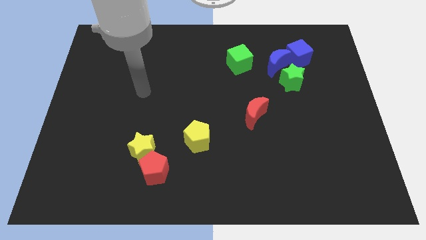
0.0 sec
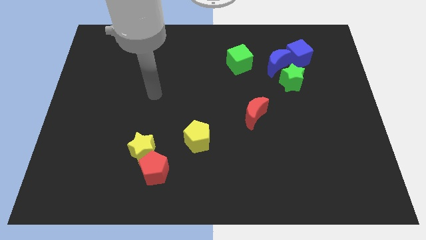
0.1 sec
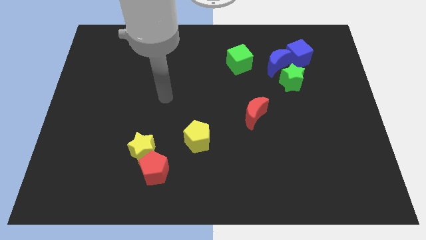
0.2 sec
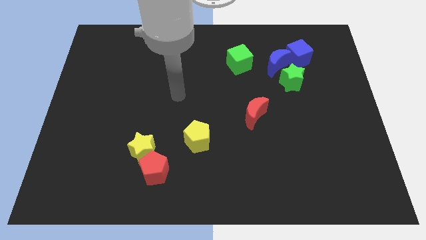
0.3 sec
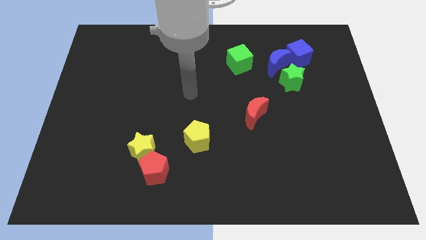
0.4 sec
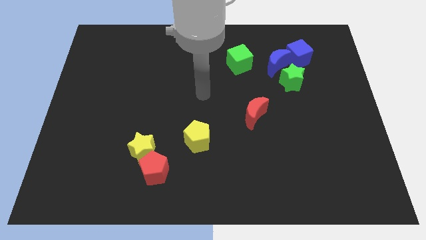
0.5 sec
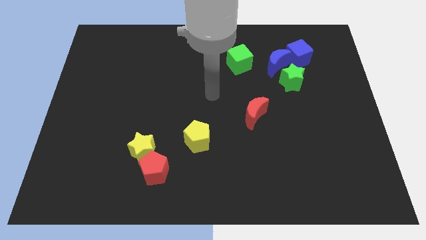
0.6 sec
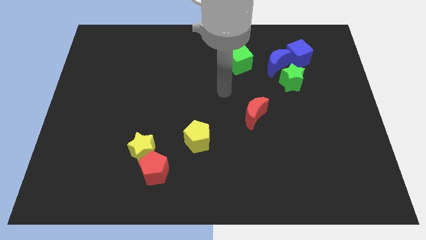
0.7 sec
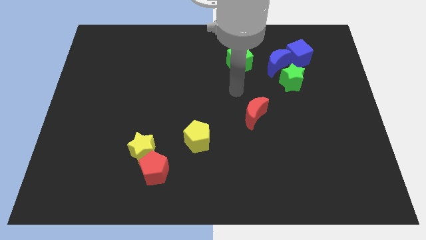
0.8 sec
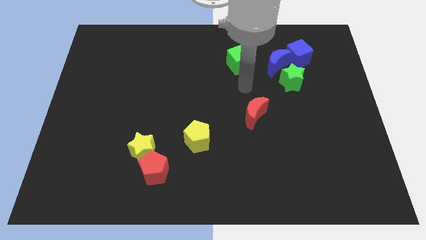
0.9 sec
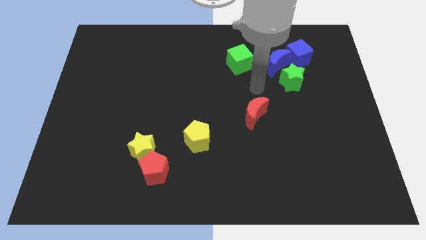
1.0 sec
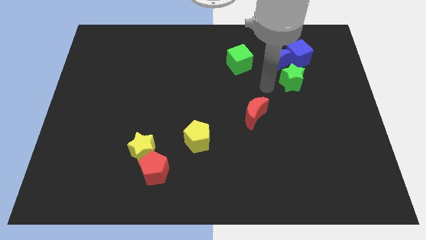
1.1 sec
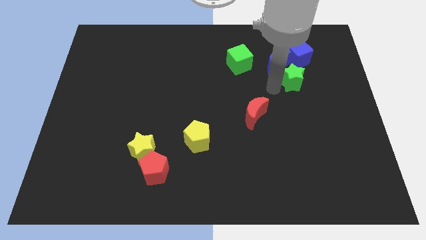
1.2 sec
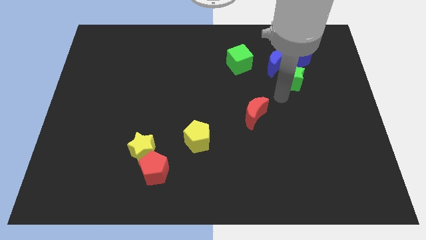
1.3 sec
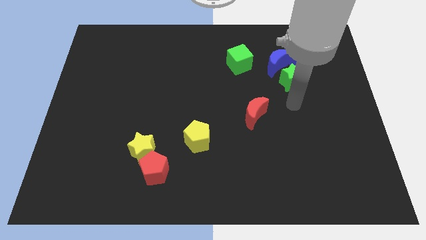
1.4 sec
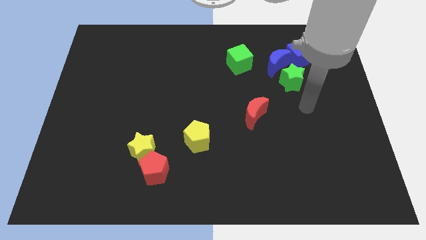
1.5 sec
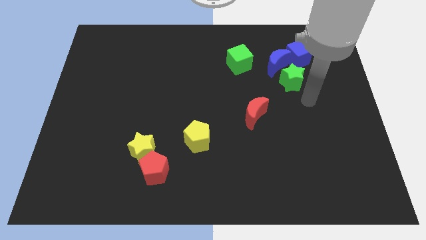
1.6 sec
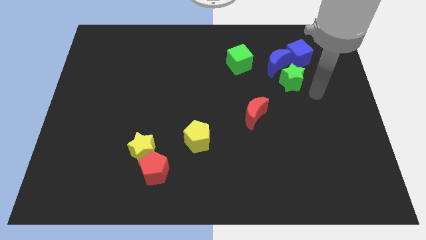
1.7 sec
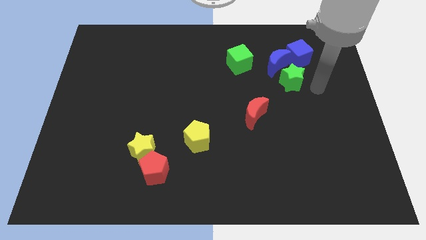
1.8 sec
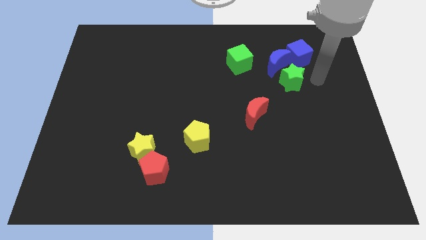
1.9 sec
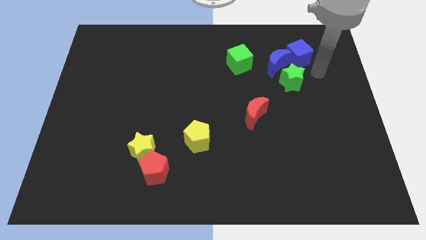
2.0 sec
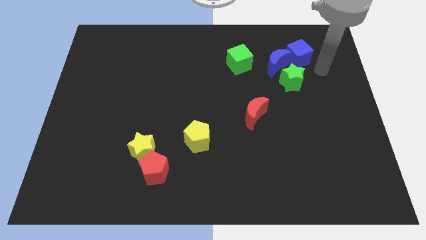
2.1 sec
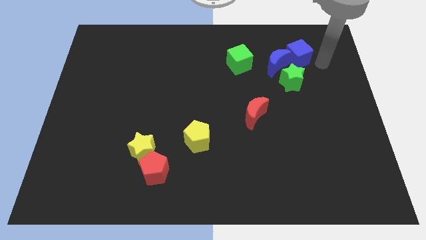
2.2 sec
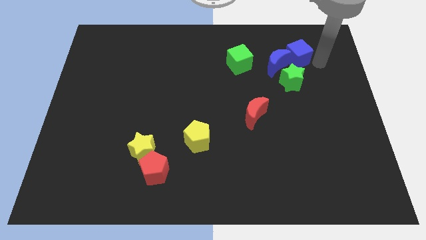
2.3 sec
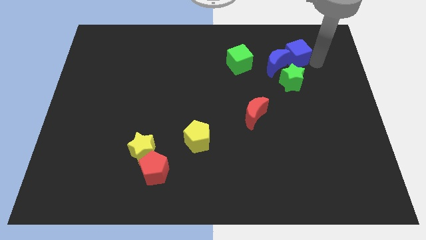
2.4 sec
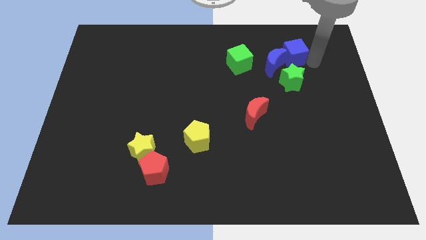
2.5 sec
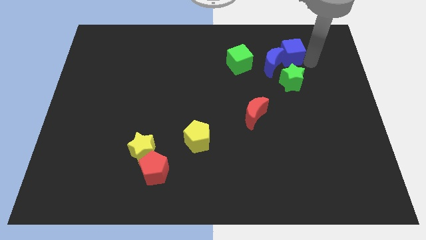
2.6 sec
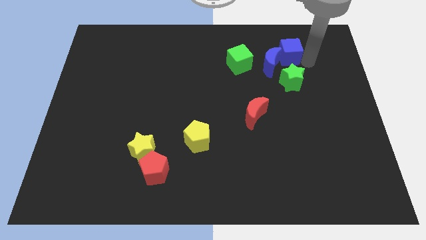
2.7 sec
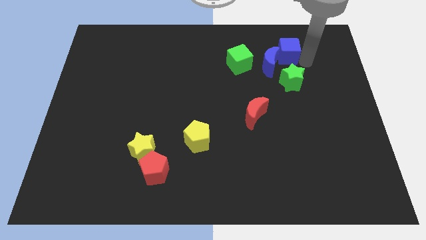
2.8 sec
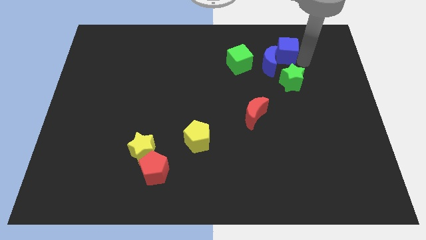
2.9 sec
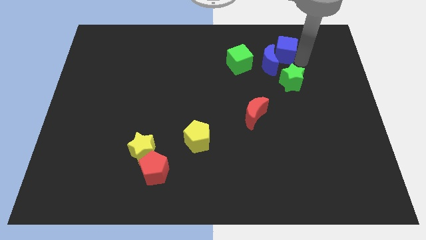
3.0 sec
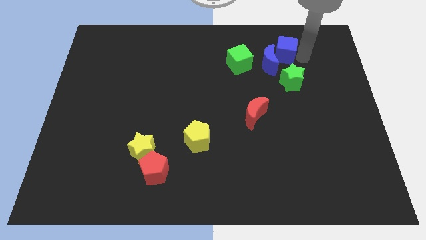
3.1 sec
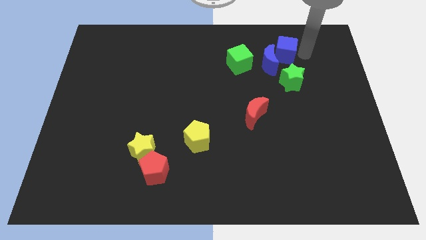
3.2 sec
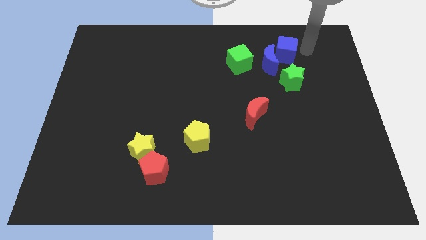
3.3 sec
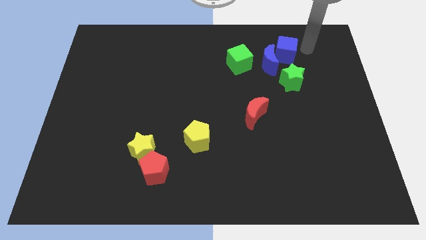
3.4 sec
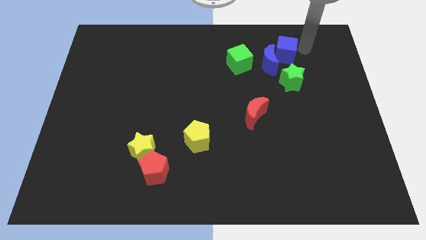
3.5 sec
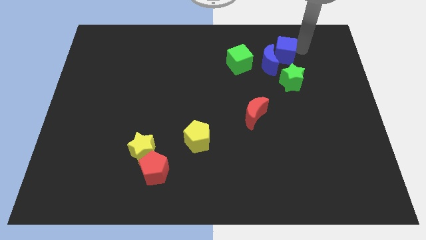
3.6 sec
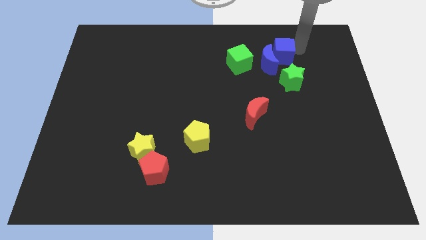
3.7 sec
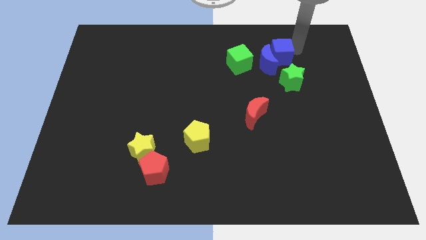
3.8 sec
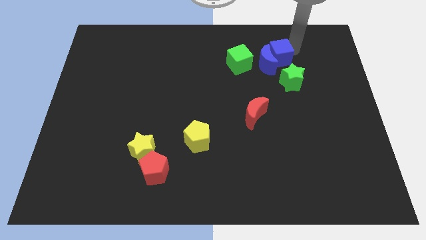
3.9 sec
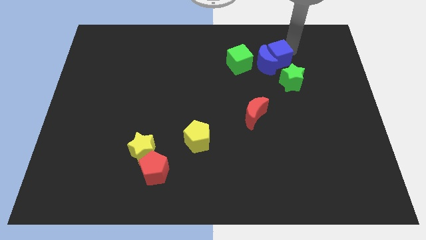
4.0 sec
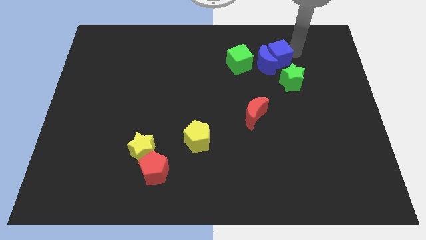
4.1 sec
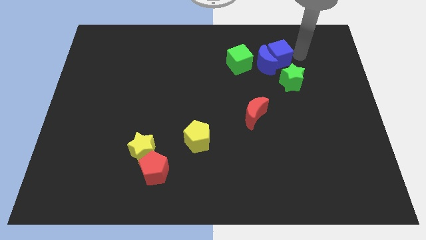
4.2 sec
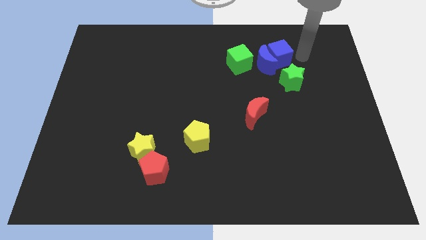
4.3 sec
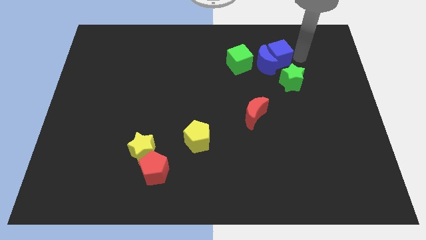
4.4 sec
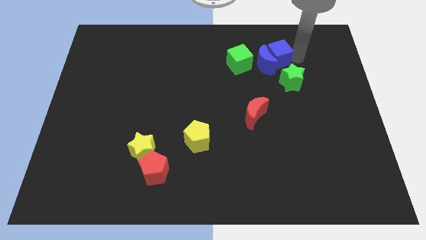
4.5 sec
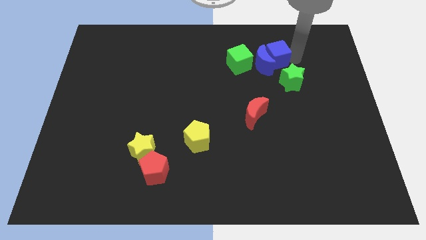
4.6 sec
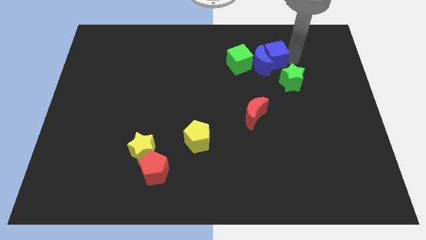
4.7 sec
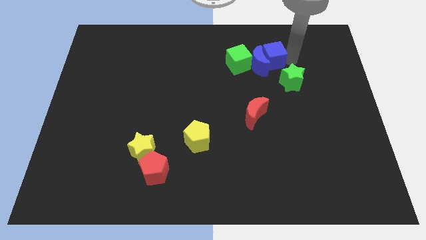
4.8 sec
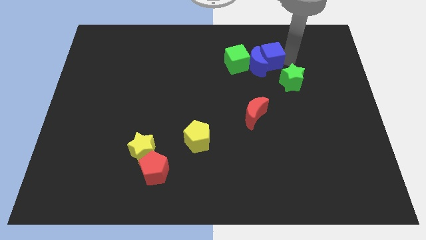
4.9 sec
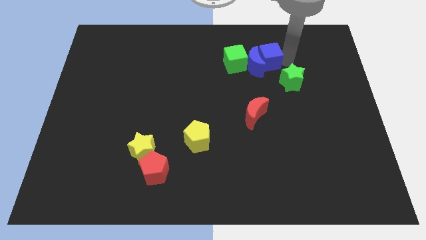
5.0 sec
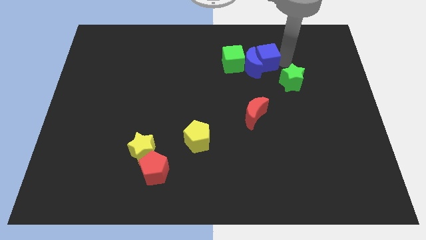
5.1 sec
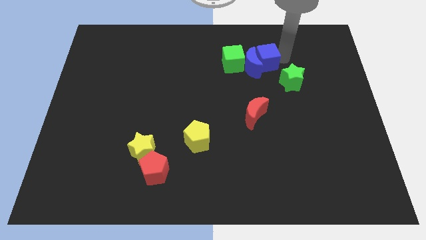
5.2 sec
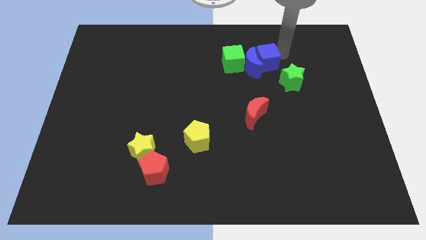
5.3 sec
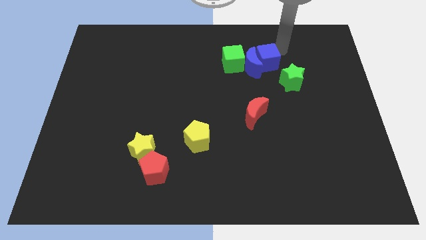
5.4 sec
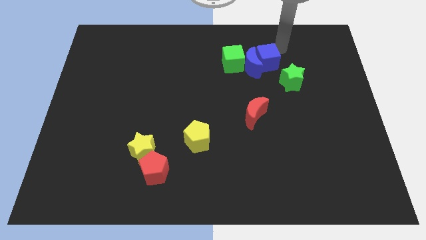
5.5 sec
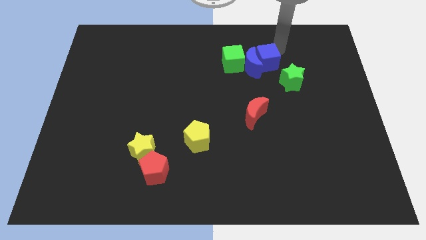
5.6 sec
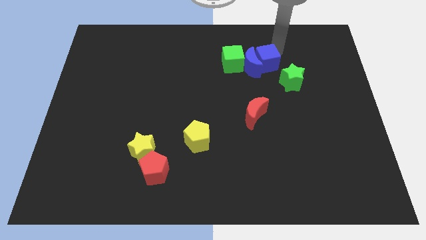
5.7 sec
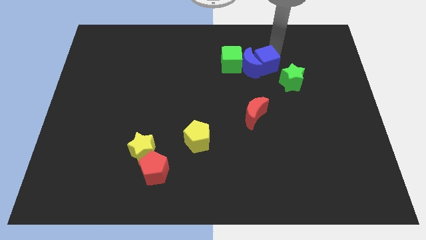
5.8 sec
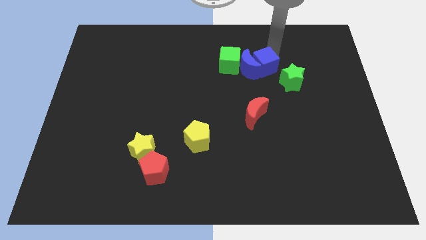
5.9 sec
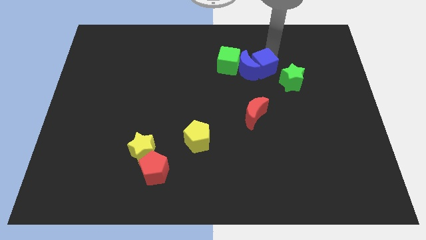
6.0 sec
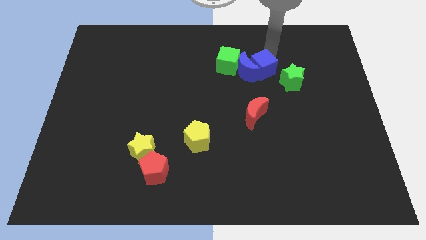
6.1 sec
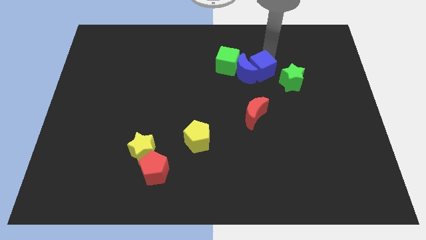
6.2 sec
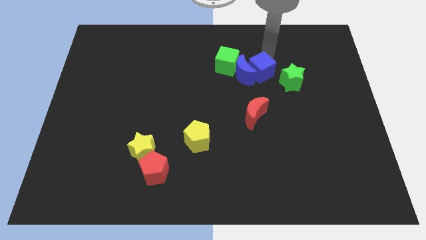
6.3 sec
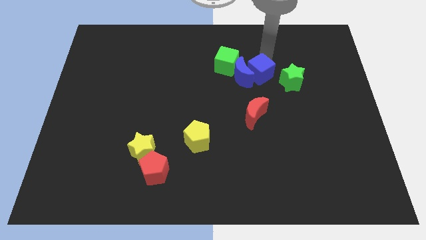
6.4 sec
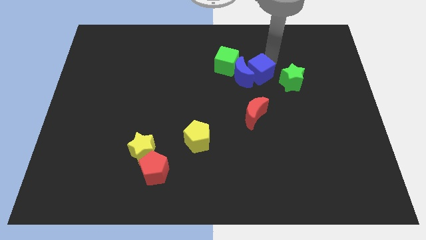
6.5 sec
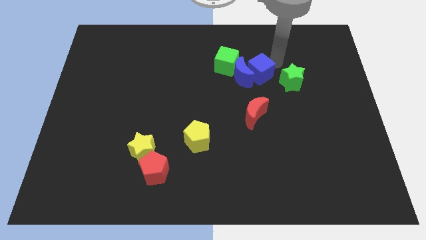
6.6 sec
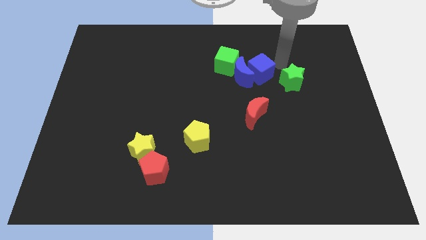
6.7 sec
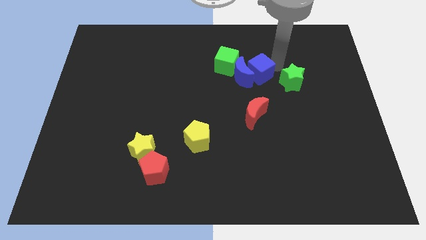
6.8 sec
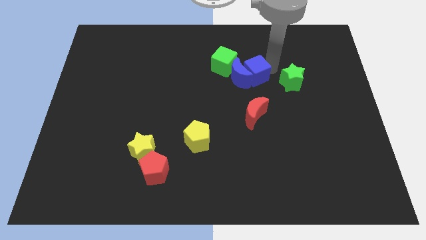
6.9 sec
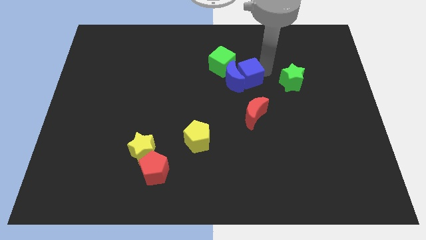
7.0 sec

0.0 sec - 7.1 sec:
push the blue cube to the middle

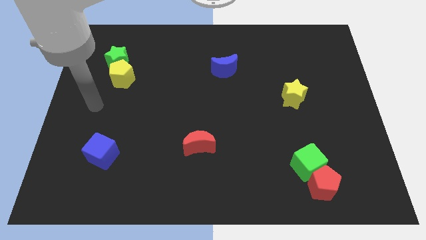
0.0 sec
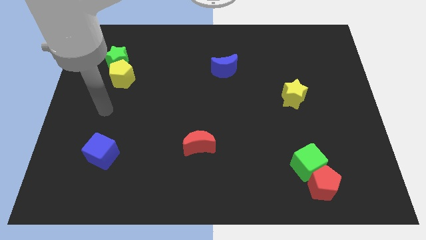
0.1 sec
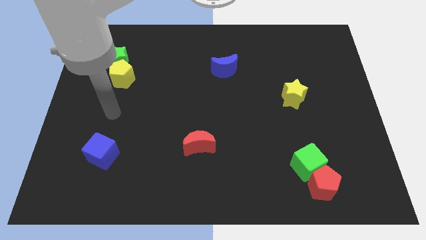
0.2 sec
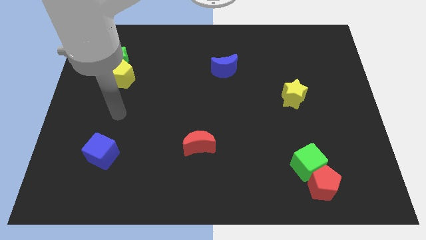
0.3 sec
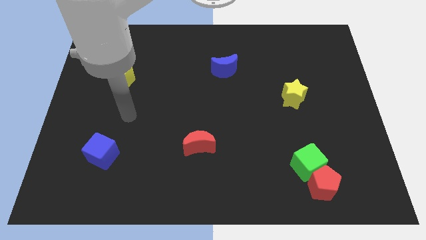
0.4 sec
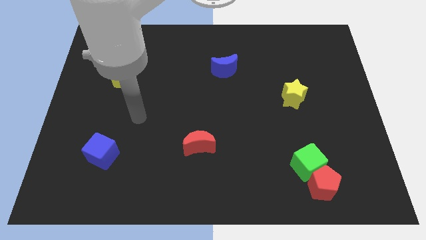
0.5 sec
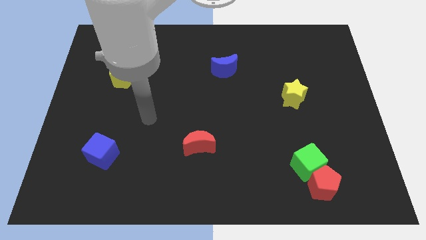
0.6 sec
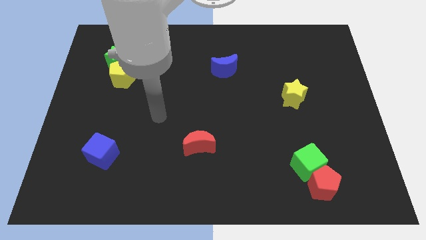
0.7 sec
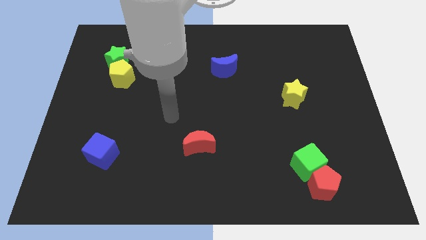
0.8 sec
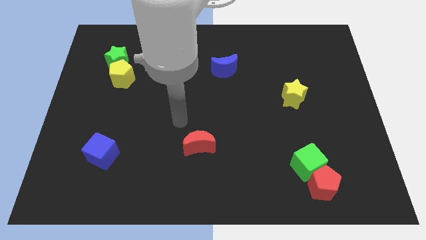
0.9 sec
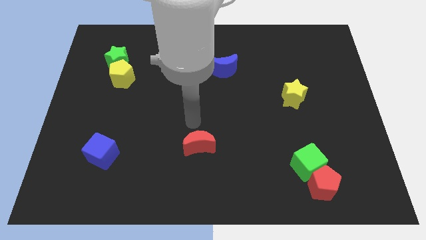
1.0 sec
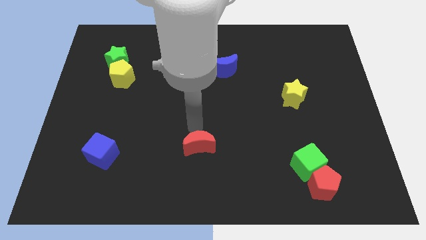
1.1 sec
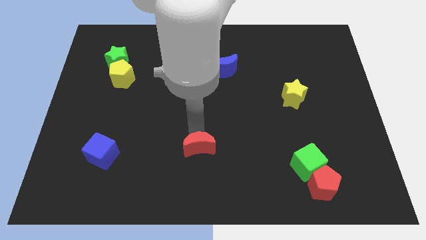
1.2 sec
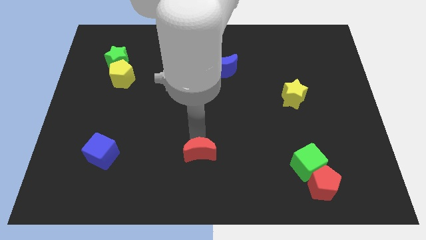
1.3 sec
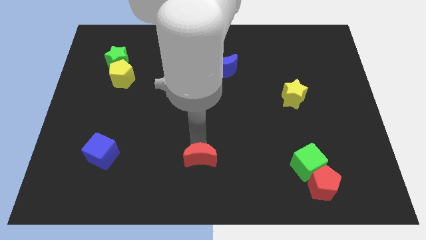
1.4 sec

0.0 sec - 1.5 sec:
put the red moon to the bottom side
